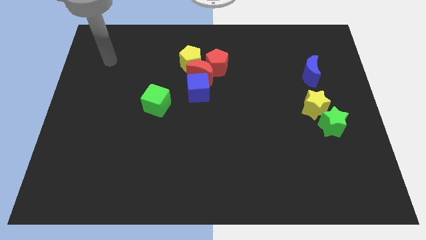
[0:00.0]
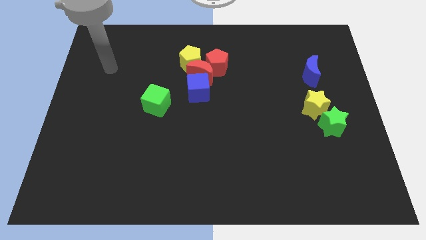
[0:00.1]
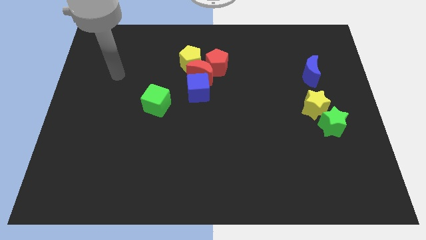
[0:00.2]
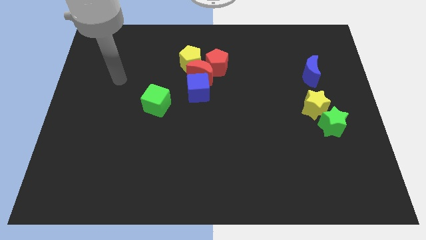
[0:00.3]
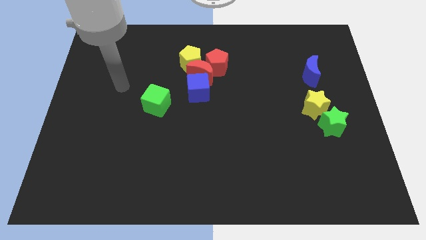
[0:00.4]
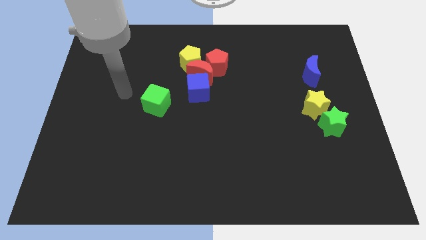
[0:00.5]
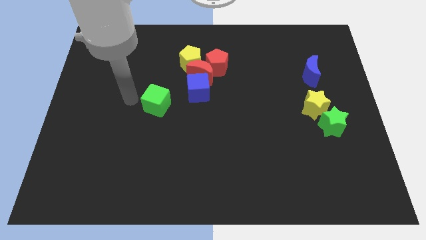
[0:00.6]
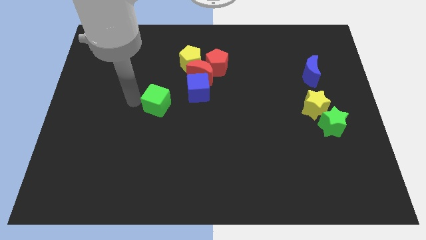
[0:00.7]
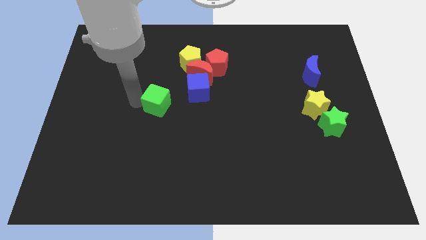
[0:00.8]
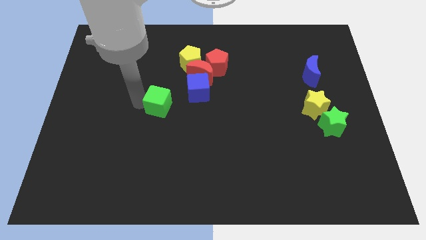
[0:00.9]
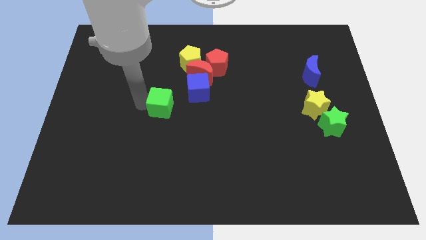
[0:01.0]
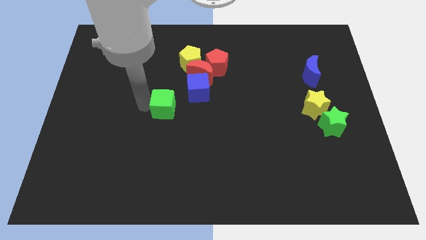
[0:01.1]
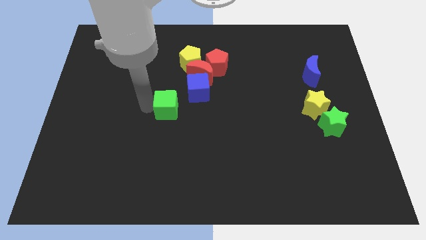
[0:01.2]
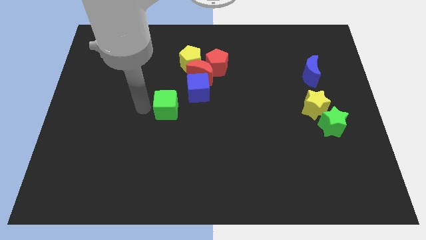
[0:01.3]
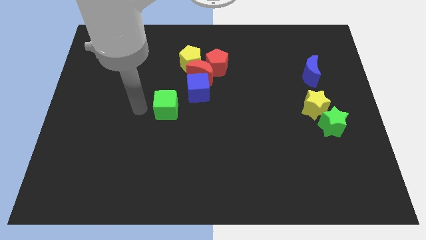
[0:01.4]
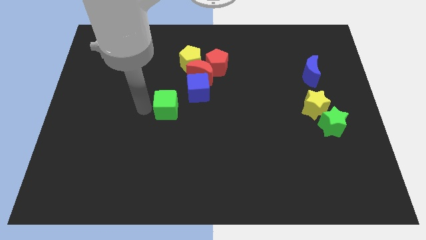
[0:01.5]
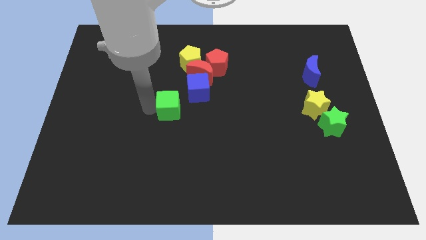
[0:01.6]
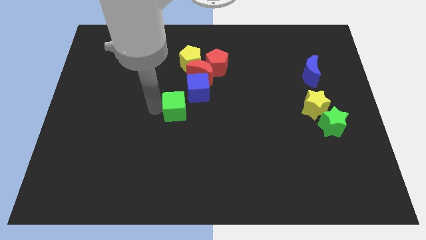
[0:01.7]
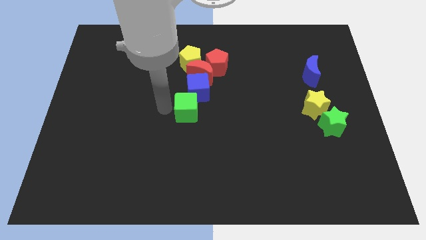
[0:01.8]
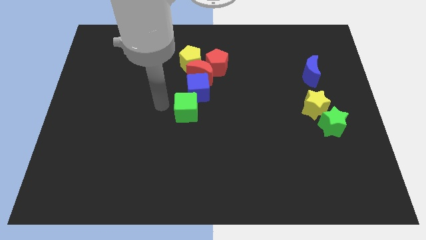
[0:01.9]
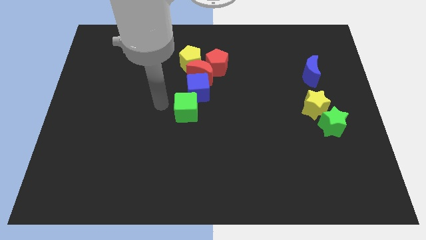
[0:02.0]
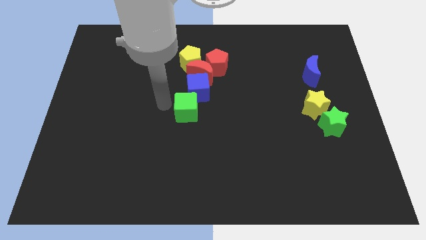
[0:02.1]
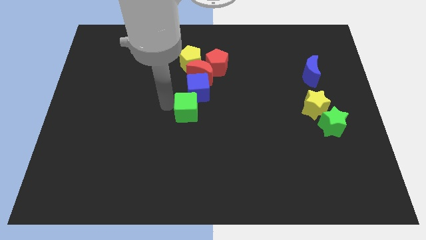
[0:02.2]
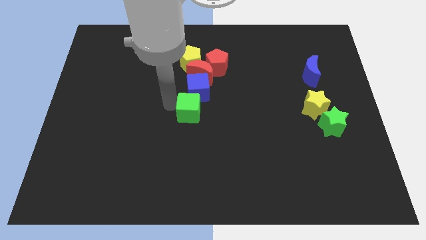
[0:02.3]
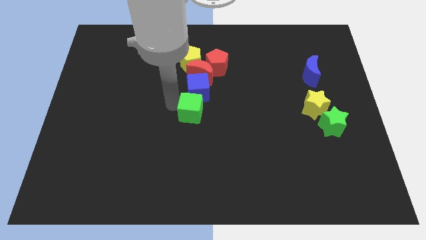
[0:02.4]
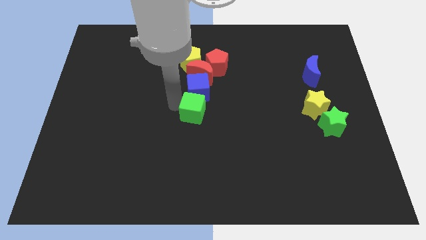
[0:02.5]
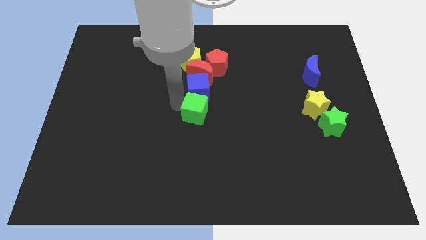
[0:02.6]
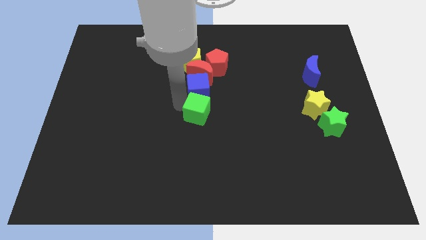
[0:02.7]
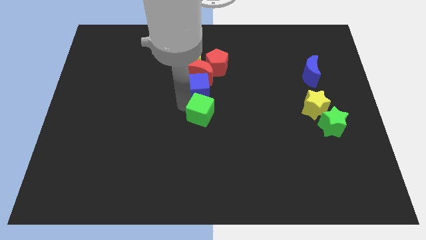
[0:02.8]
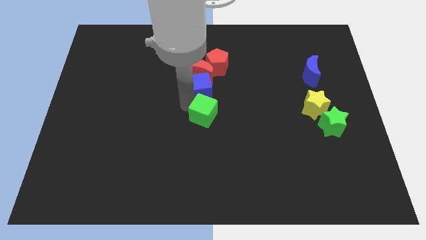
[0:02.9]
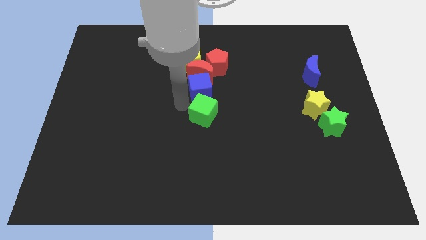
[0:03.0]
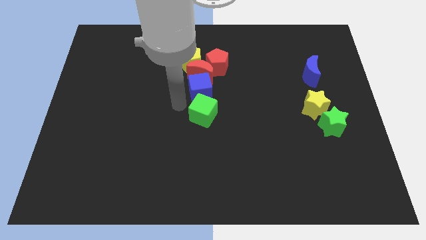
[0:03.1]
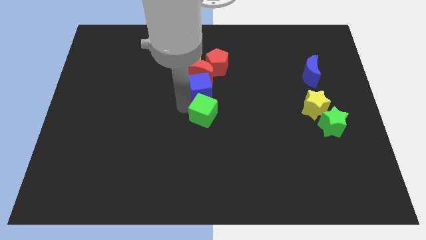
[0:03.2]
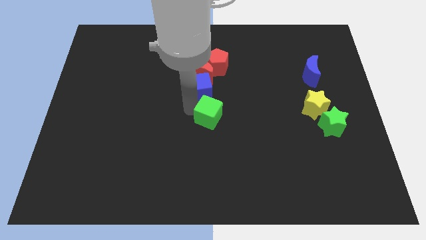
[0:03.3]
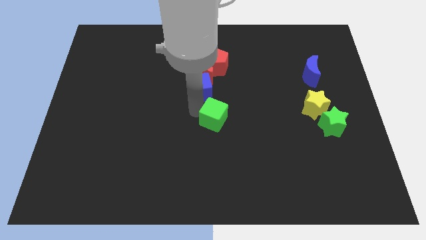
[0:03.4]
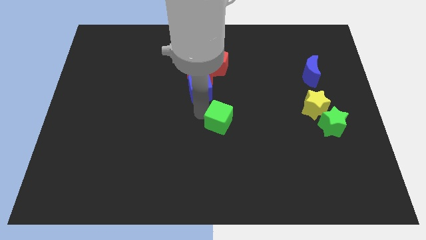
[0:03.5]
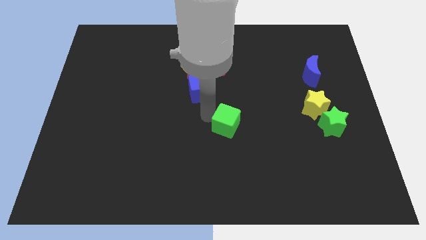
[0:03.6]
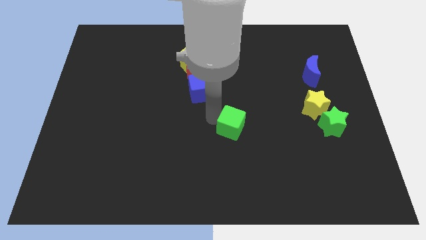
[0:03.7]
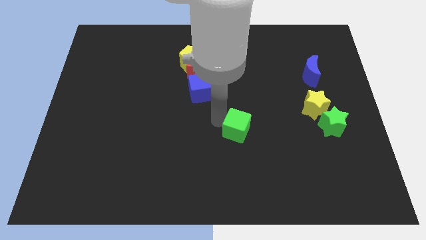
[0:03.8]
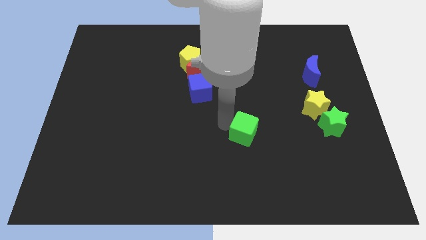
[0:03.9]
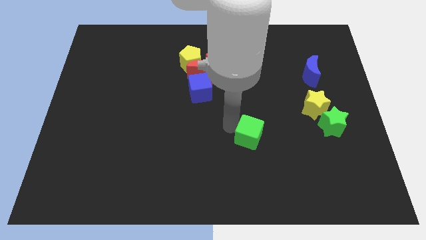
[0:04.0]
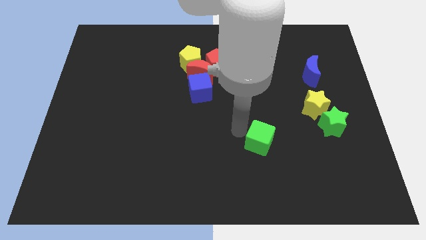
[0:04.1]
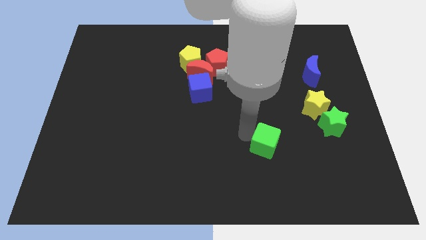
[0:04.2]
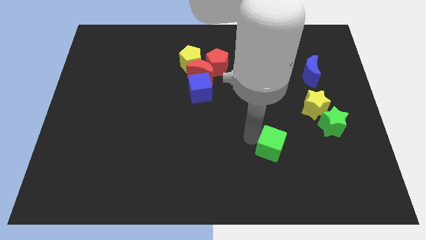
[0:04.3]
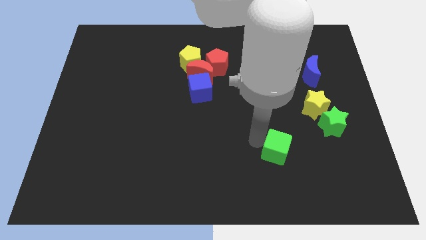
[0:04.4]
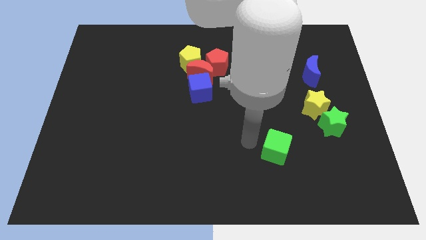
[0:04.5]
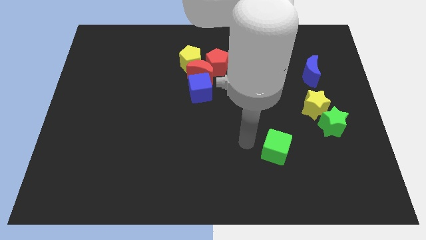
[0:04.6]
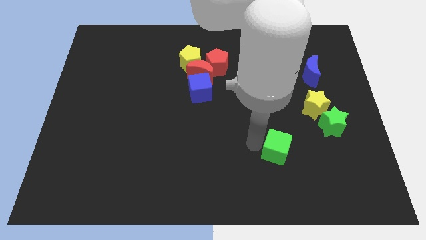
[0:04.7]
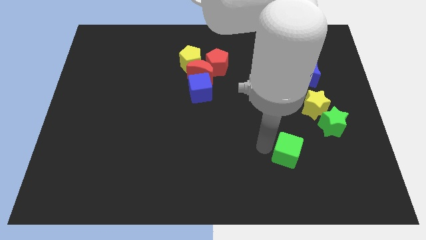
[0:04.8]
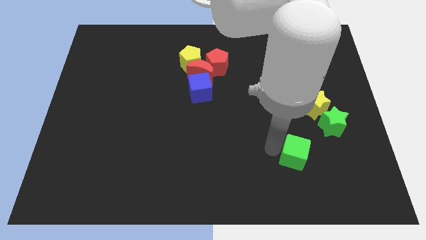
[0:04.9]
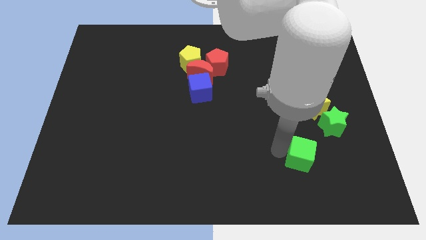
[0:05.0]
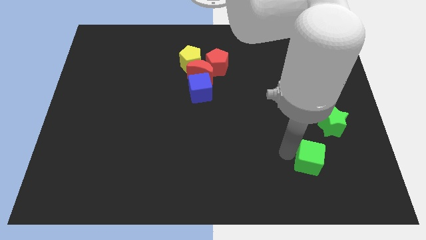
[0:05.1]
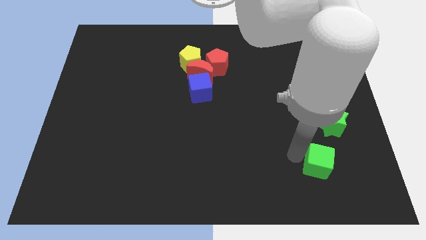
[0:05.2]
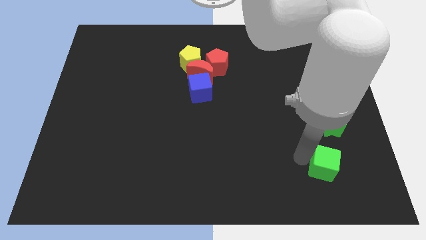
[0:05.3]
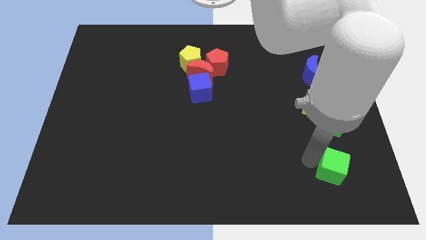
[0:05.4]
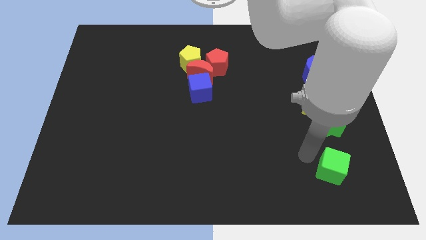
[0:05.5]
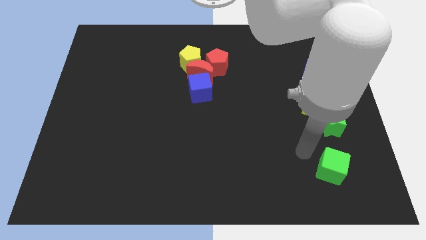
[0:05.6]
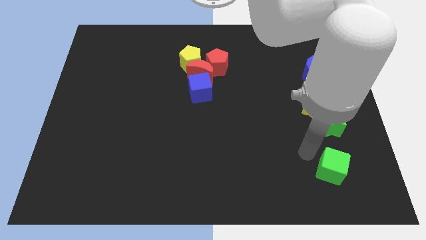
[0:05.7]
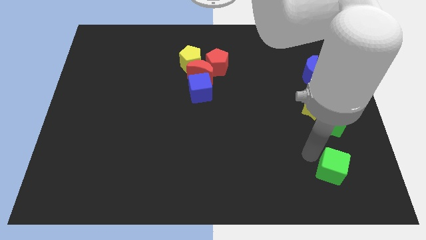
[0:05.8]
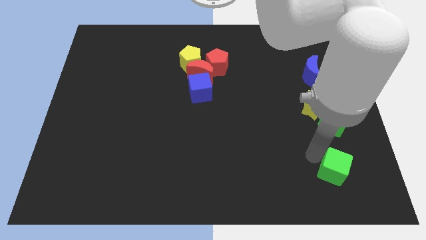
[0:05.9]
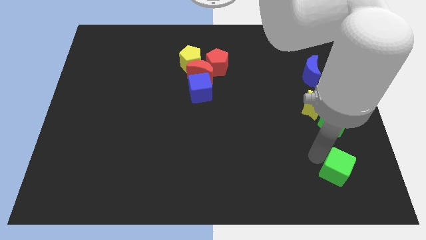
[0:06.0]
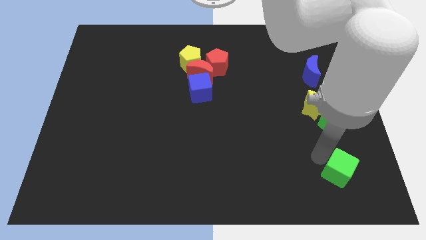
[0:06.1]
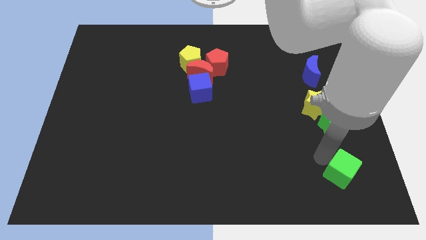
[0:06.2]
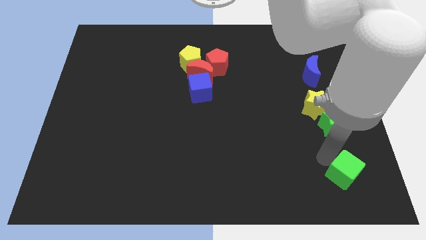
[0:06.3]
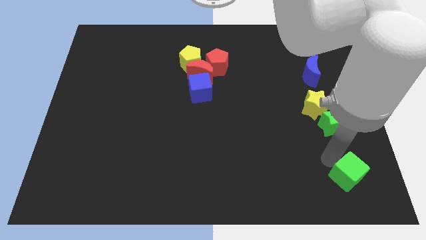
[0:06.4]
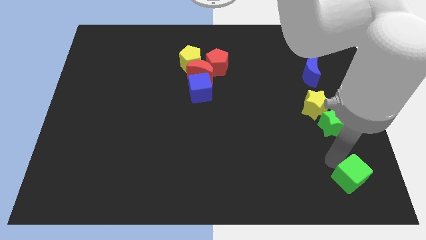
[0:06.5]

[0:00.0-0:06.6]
move the green cube to the lower right corner
